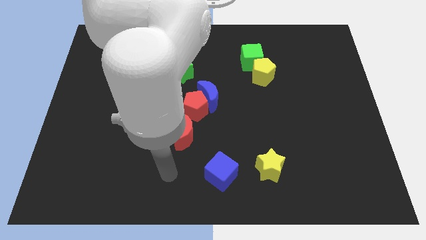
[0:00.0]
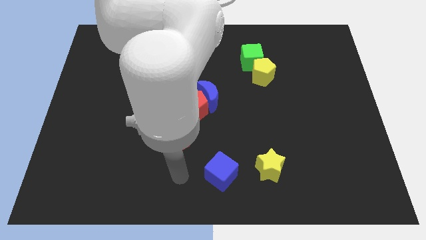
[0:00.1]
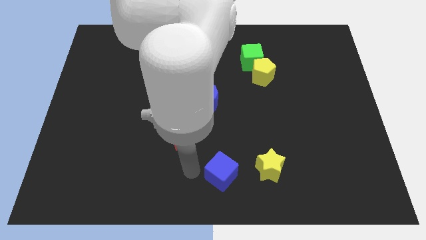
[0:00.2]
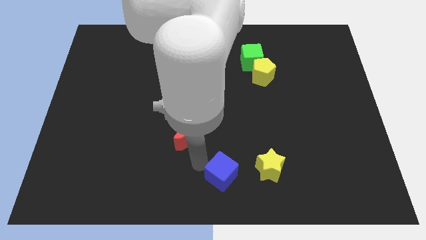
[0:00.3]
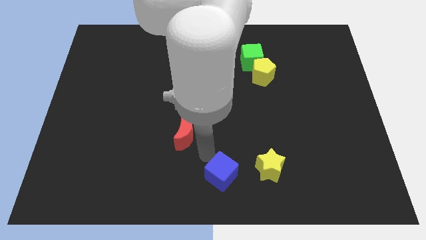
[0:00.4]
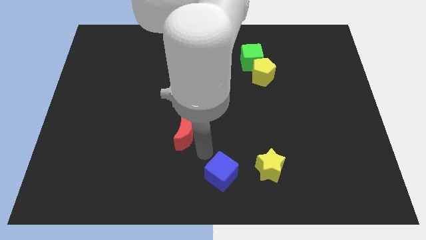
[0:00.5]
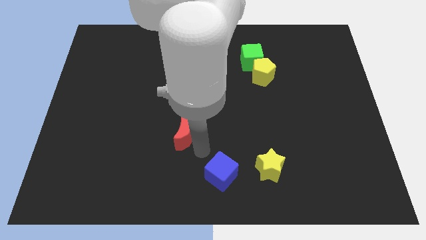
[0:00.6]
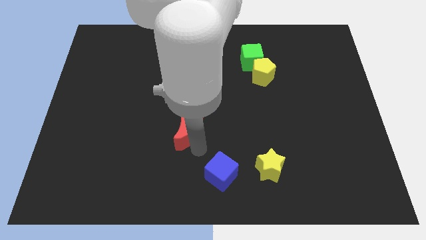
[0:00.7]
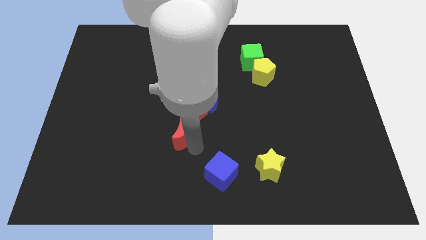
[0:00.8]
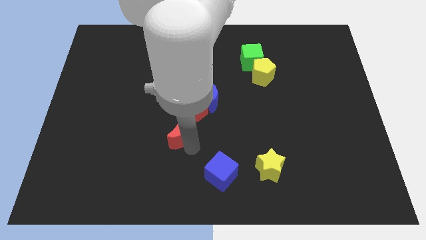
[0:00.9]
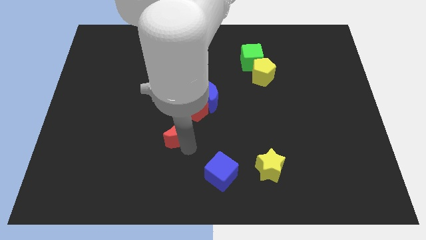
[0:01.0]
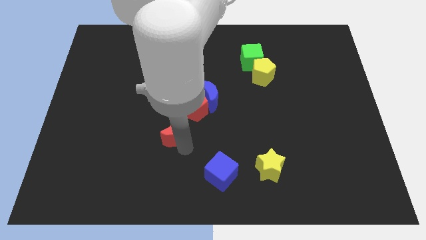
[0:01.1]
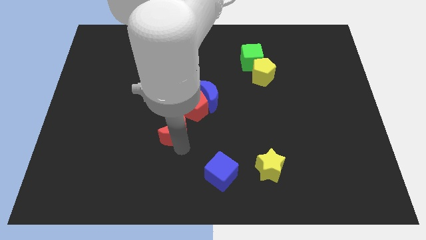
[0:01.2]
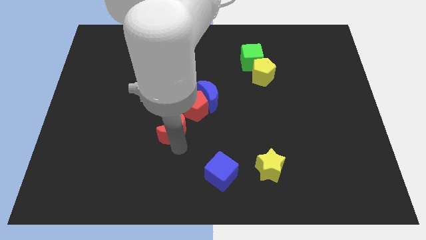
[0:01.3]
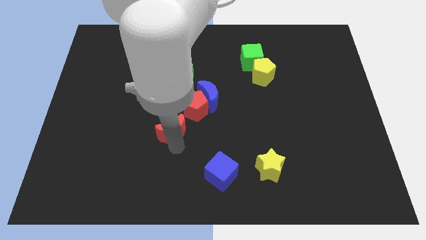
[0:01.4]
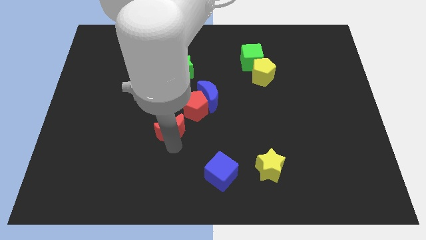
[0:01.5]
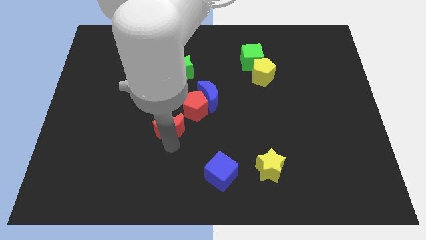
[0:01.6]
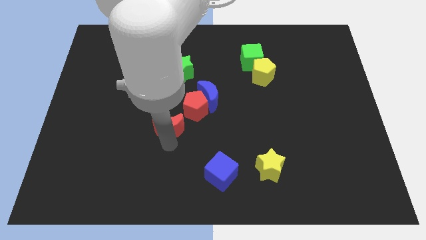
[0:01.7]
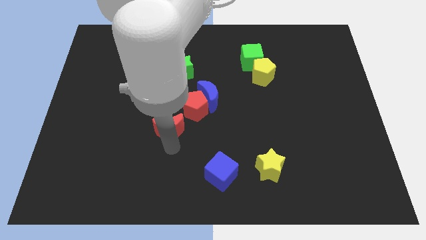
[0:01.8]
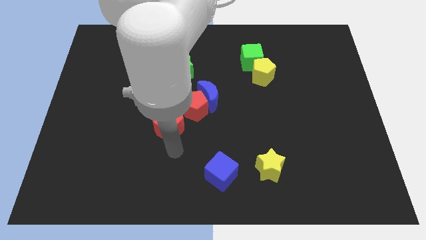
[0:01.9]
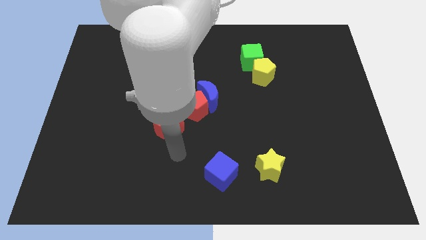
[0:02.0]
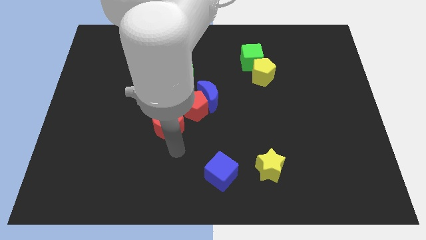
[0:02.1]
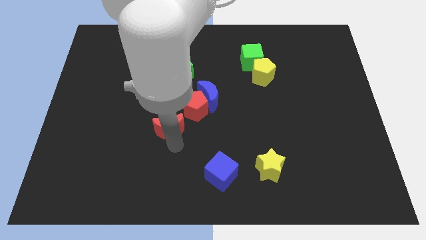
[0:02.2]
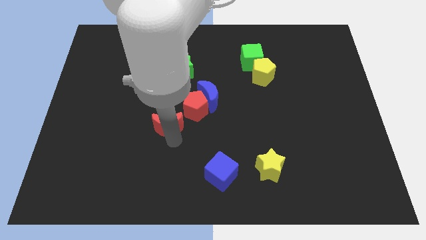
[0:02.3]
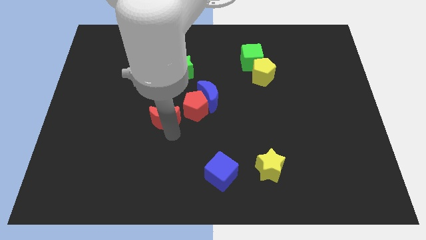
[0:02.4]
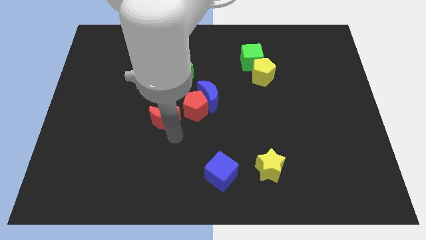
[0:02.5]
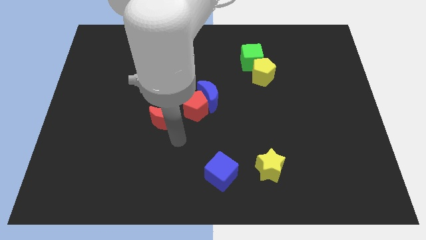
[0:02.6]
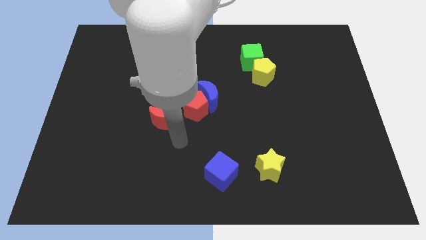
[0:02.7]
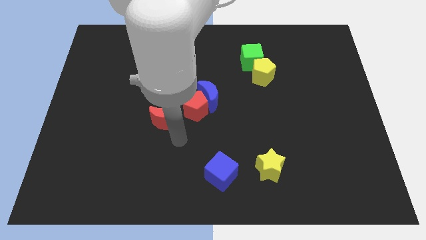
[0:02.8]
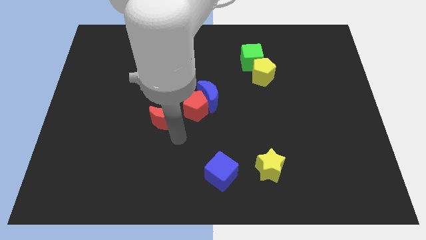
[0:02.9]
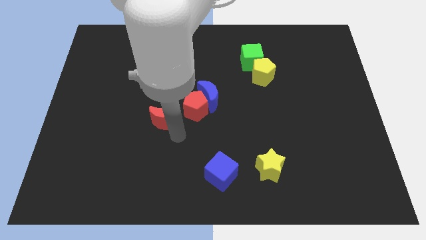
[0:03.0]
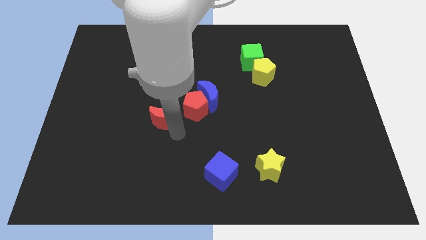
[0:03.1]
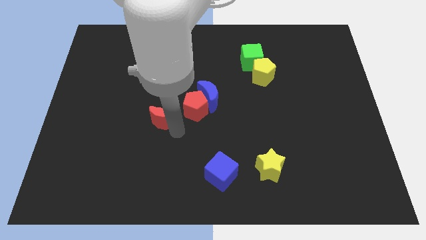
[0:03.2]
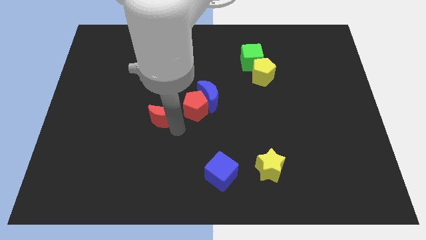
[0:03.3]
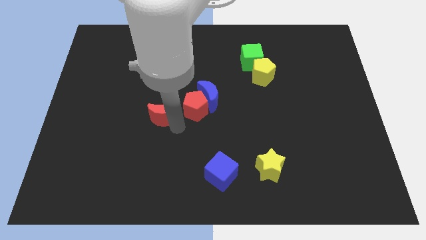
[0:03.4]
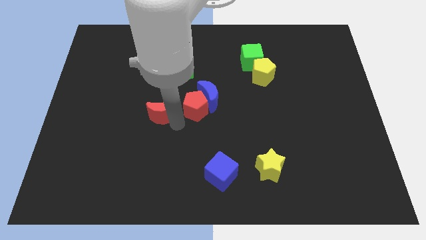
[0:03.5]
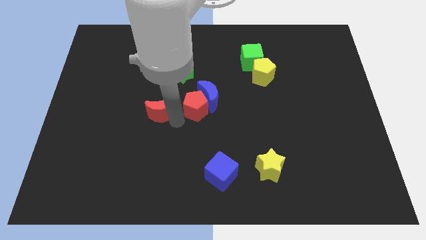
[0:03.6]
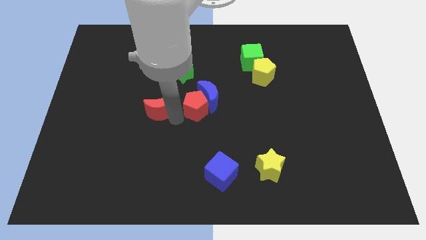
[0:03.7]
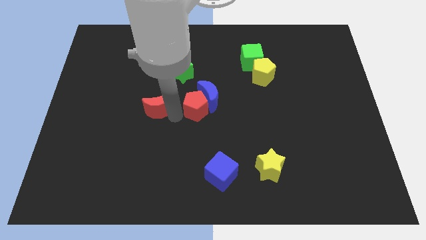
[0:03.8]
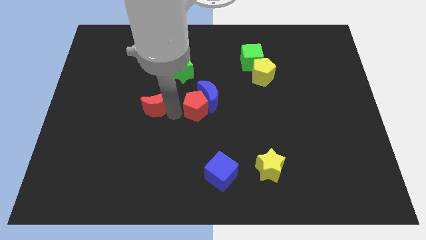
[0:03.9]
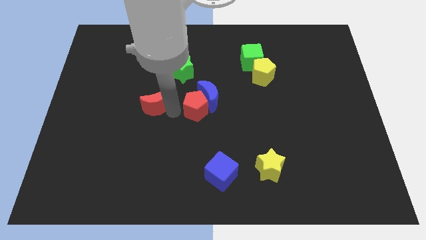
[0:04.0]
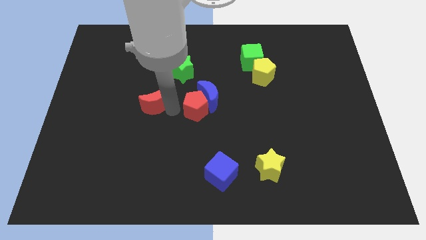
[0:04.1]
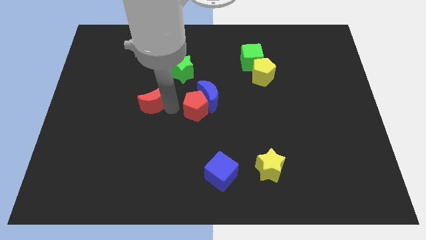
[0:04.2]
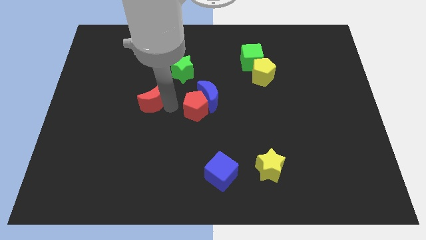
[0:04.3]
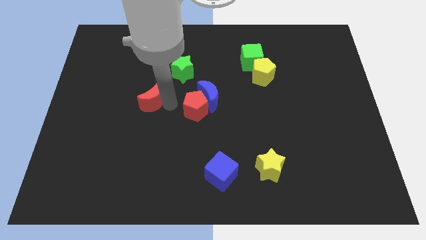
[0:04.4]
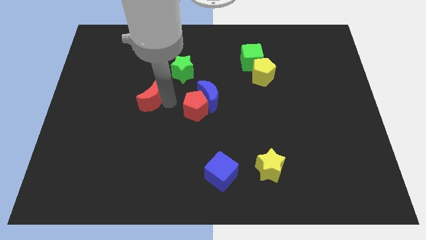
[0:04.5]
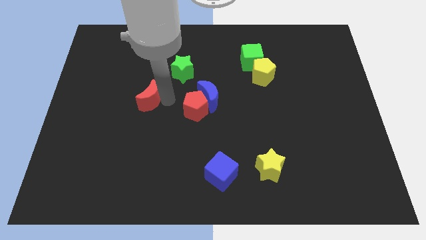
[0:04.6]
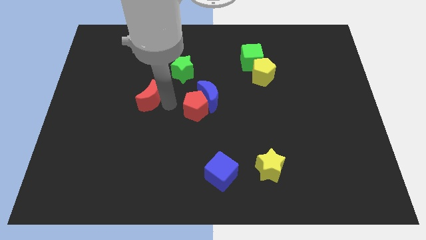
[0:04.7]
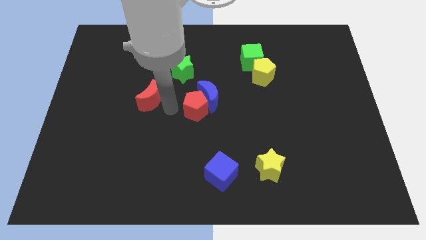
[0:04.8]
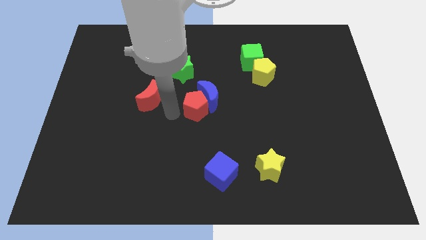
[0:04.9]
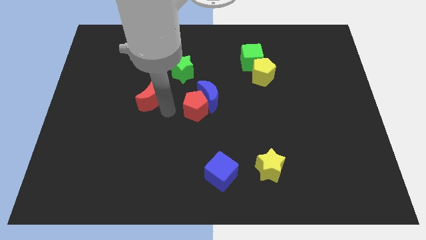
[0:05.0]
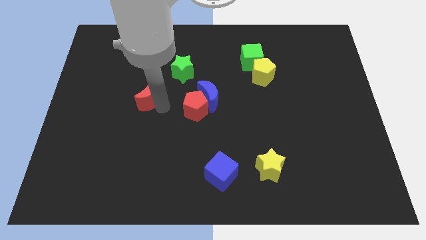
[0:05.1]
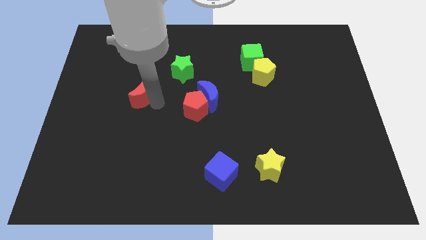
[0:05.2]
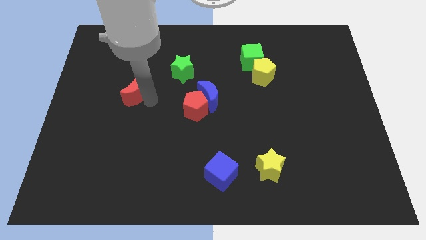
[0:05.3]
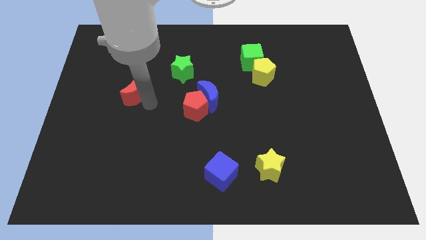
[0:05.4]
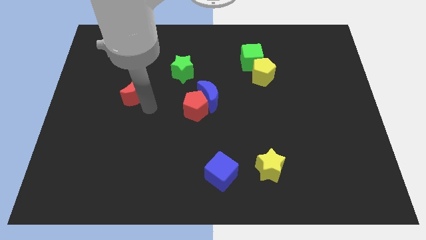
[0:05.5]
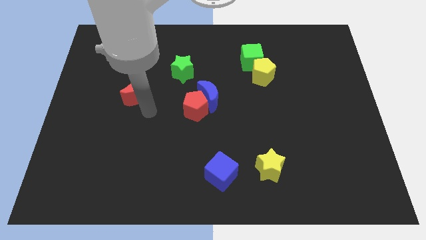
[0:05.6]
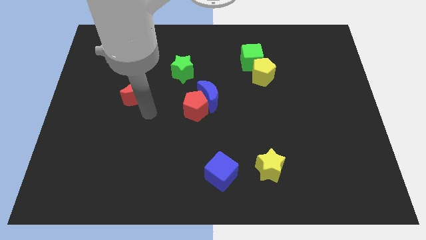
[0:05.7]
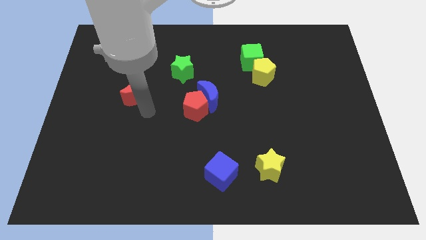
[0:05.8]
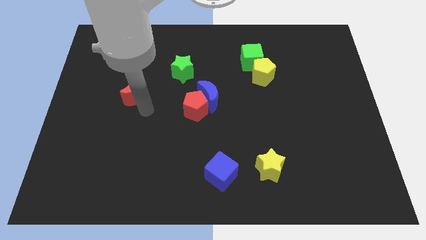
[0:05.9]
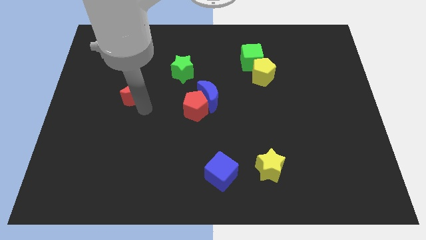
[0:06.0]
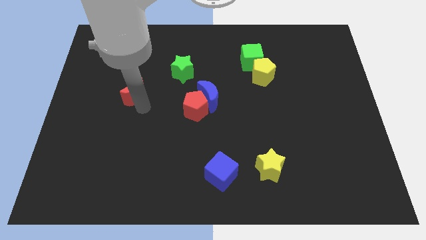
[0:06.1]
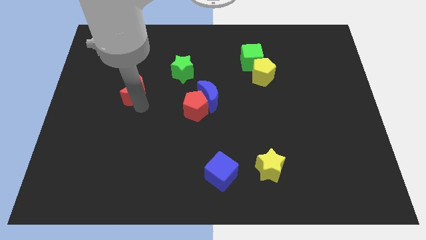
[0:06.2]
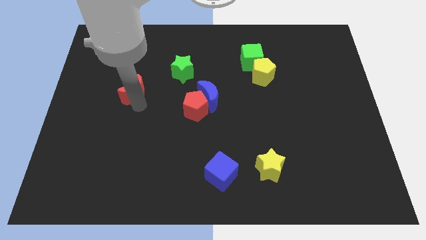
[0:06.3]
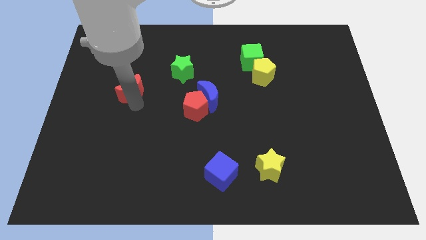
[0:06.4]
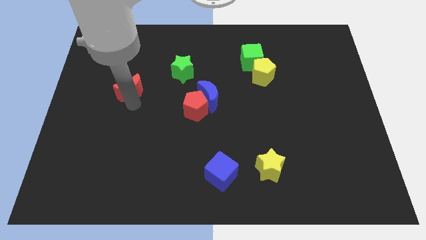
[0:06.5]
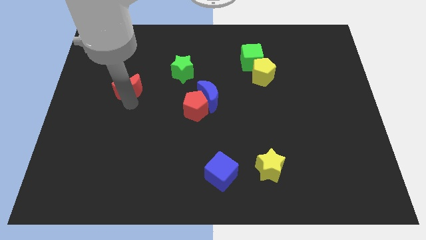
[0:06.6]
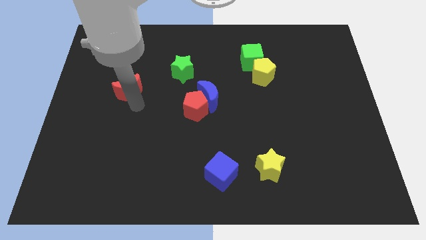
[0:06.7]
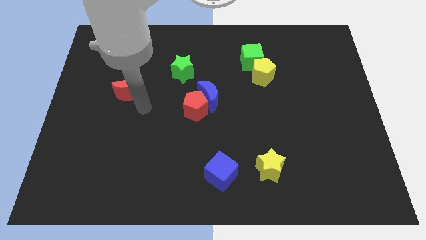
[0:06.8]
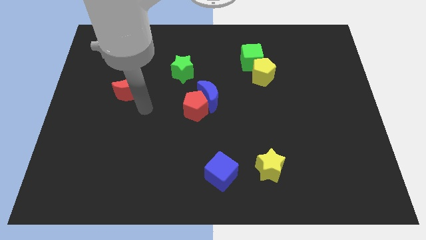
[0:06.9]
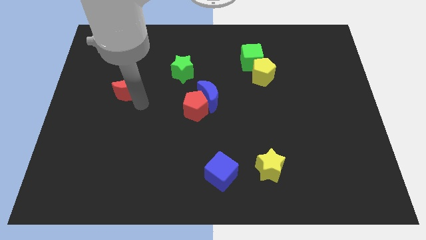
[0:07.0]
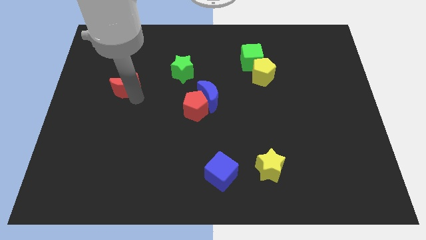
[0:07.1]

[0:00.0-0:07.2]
move the red moon upwards and then to the left

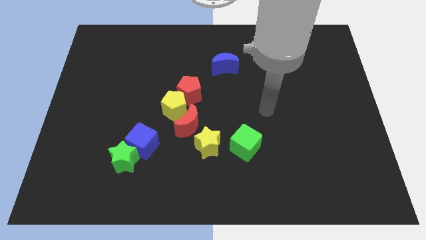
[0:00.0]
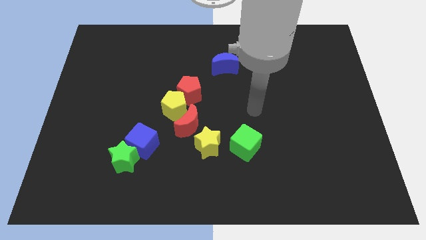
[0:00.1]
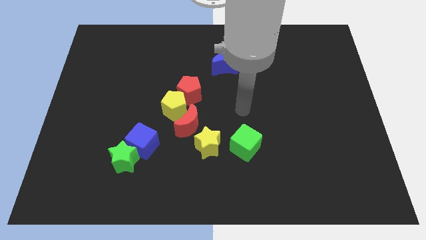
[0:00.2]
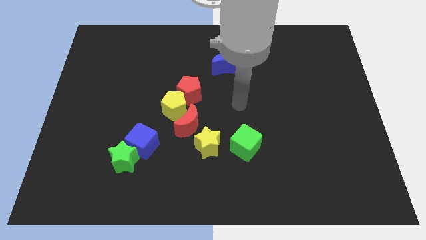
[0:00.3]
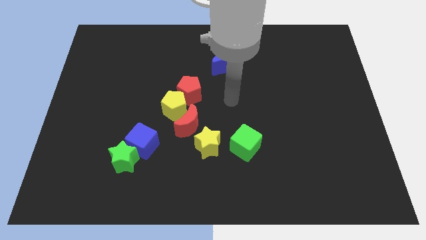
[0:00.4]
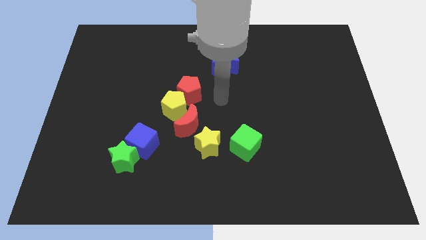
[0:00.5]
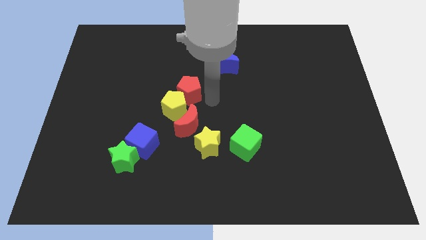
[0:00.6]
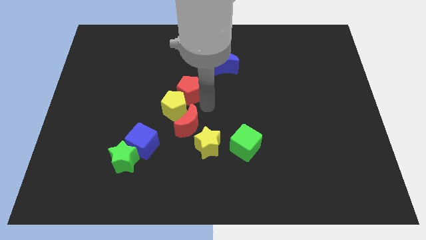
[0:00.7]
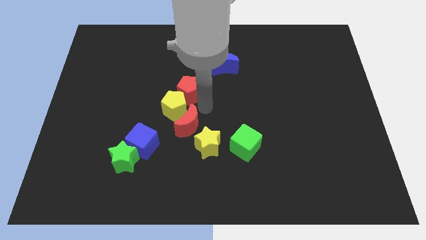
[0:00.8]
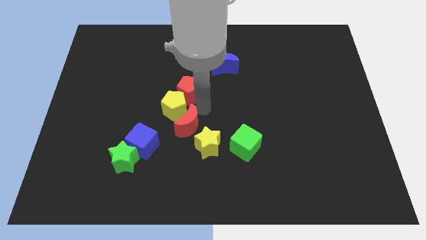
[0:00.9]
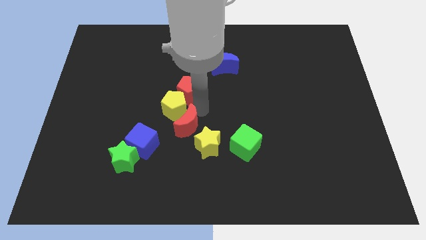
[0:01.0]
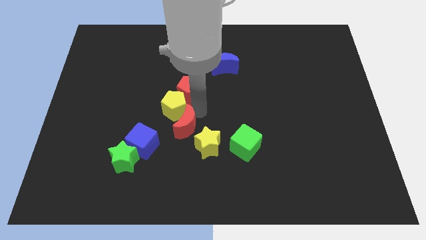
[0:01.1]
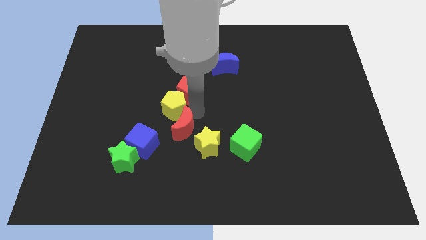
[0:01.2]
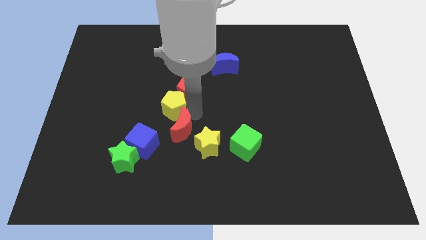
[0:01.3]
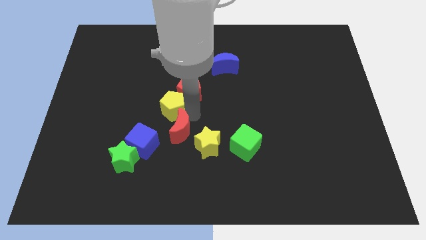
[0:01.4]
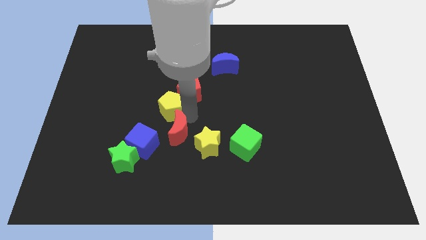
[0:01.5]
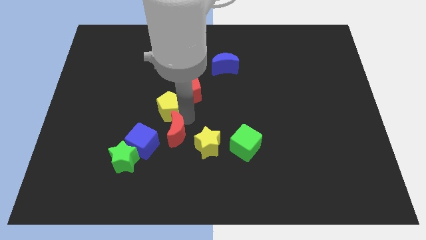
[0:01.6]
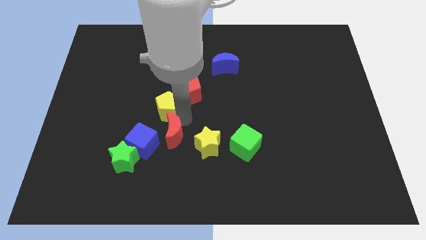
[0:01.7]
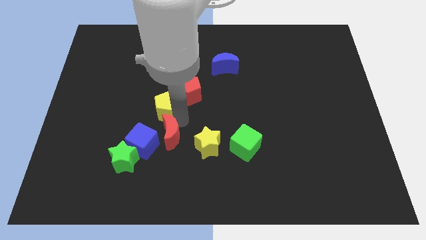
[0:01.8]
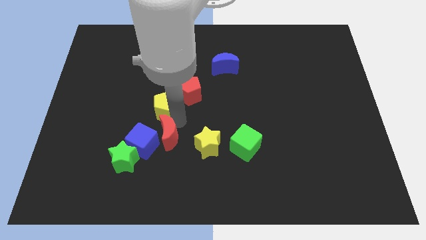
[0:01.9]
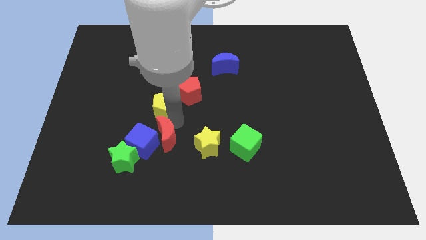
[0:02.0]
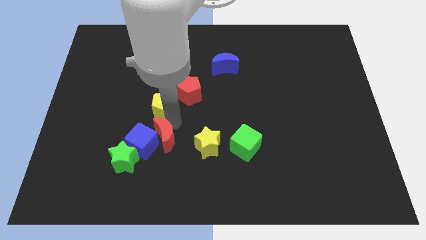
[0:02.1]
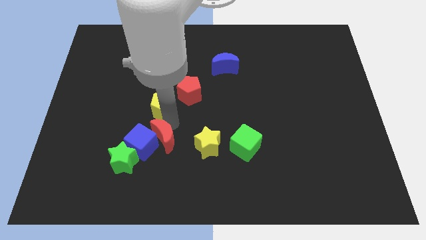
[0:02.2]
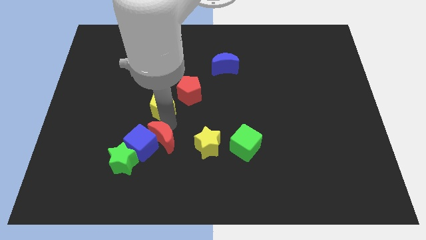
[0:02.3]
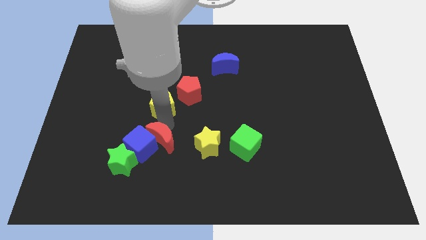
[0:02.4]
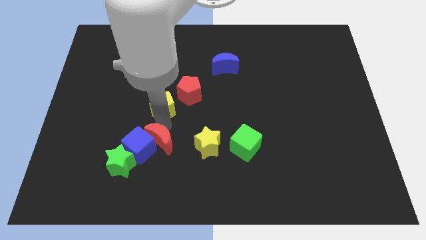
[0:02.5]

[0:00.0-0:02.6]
push the red moon a little bit down and to the left diagonally
